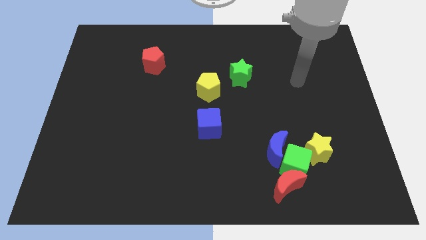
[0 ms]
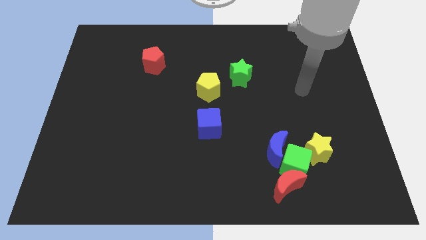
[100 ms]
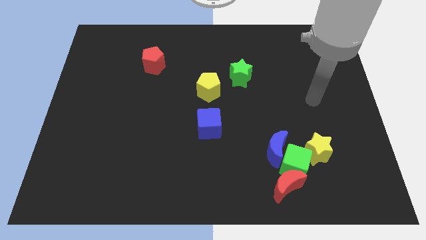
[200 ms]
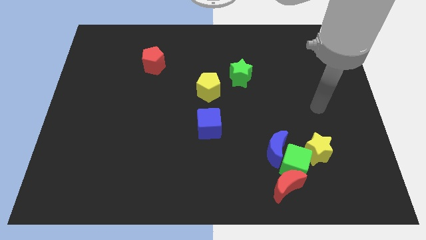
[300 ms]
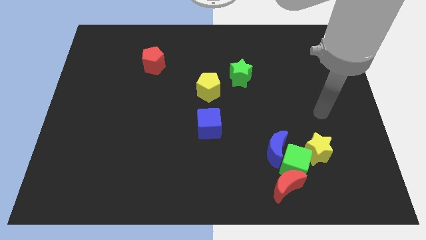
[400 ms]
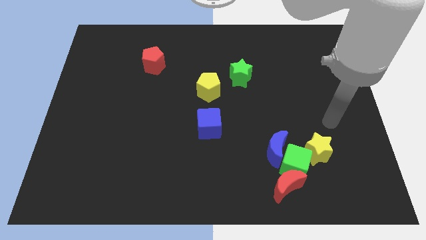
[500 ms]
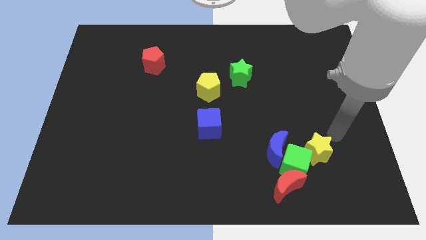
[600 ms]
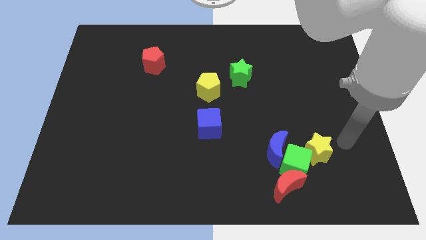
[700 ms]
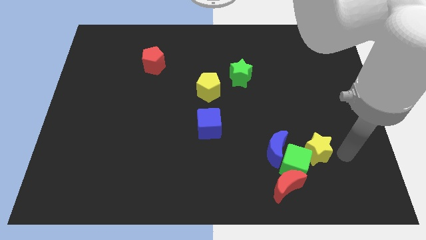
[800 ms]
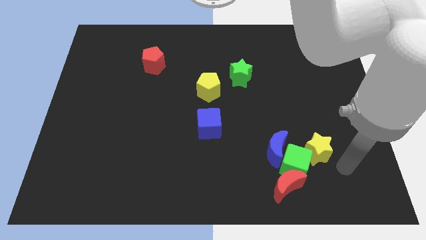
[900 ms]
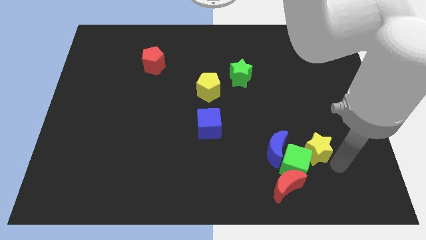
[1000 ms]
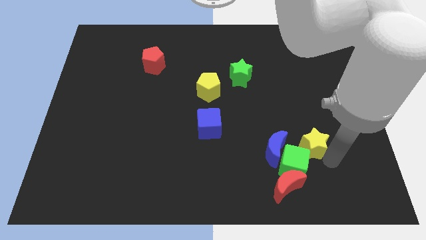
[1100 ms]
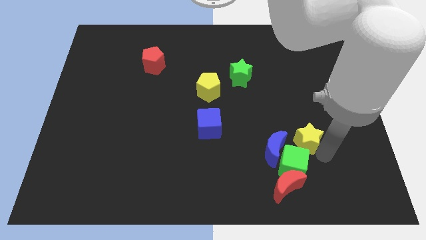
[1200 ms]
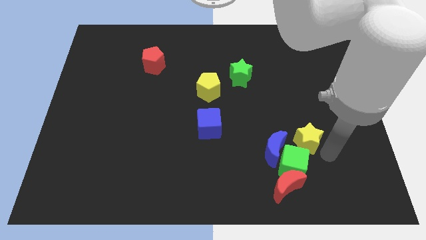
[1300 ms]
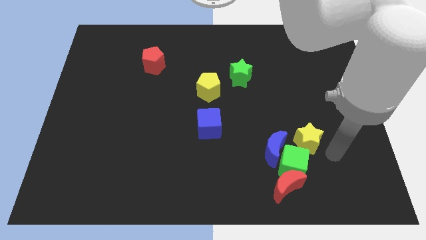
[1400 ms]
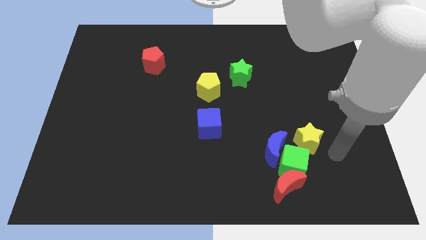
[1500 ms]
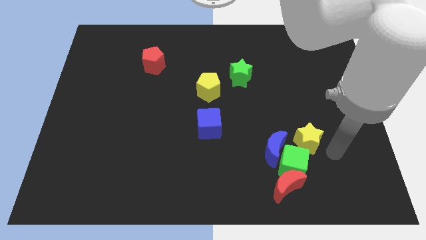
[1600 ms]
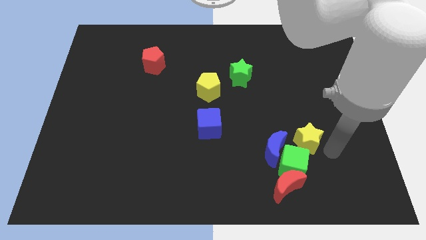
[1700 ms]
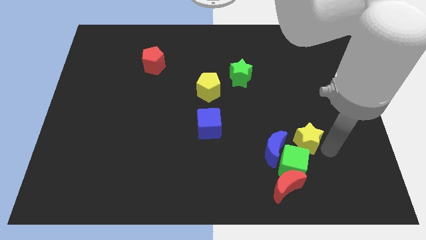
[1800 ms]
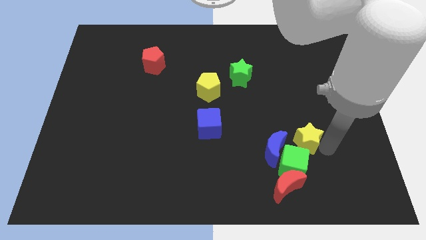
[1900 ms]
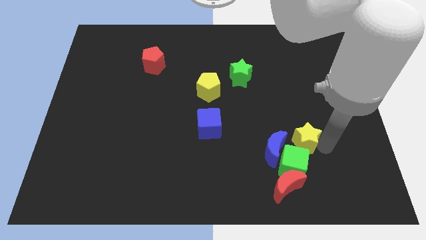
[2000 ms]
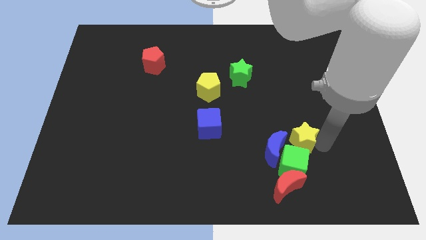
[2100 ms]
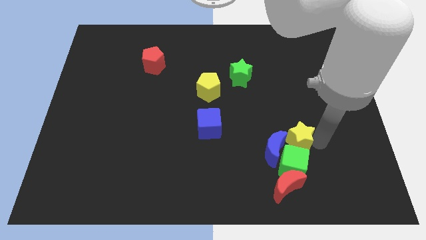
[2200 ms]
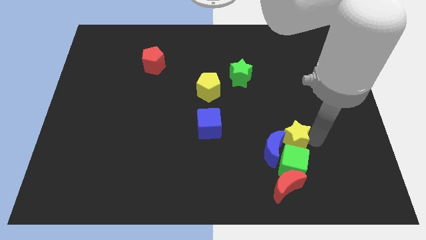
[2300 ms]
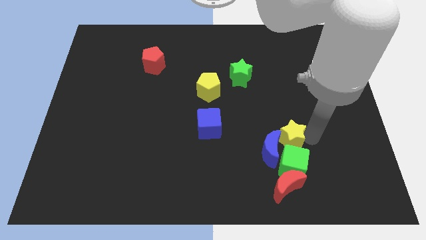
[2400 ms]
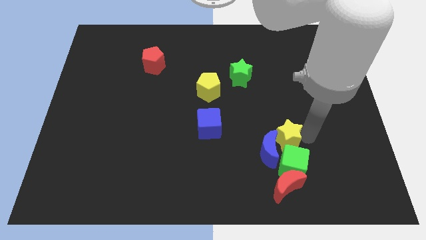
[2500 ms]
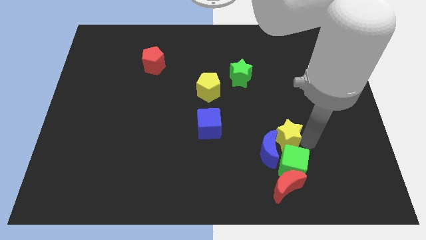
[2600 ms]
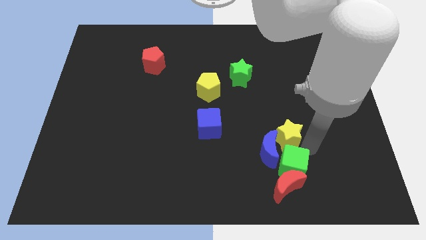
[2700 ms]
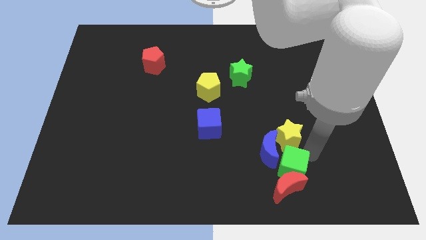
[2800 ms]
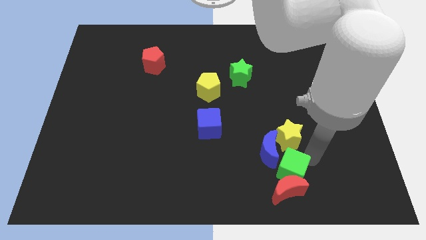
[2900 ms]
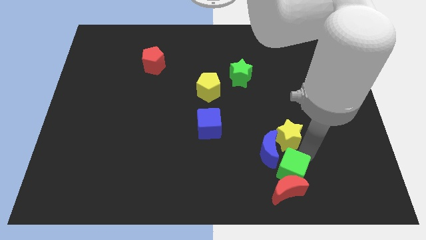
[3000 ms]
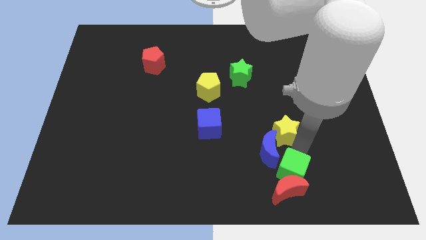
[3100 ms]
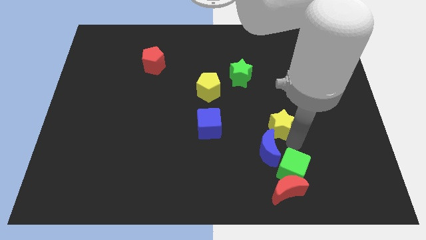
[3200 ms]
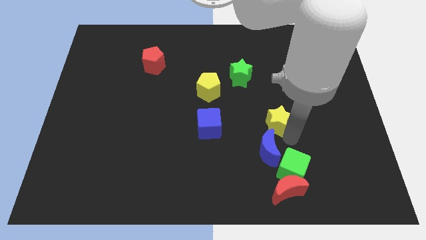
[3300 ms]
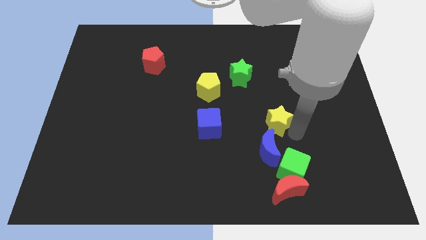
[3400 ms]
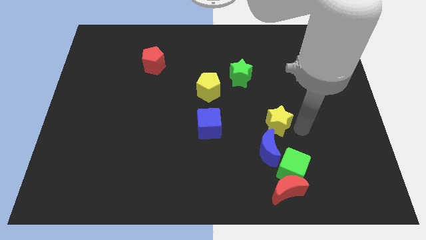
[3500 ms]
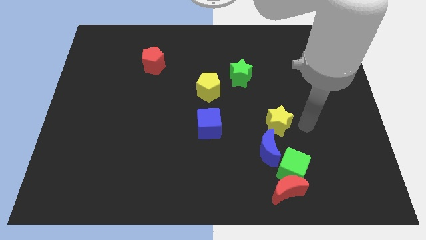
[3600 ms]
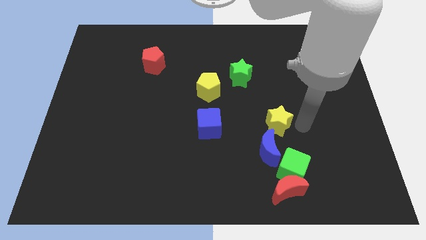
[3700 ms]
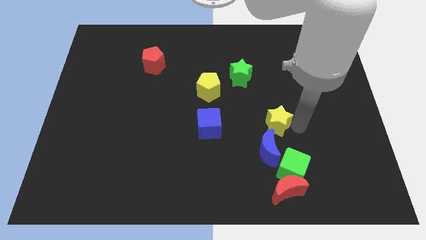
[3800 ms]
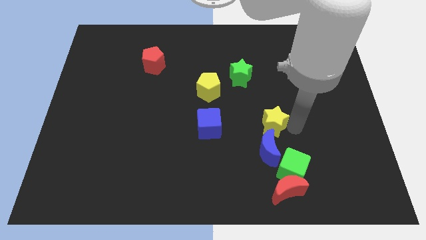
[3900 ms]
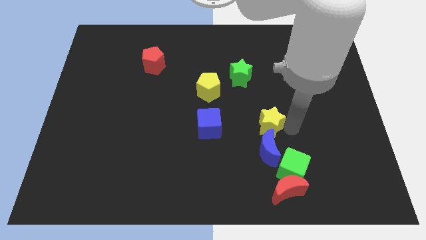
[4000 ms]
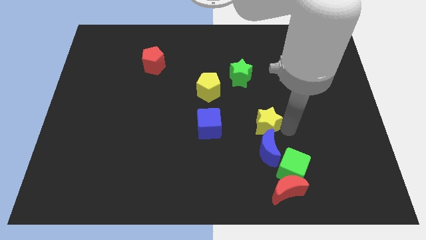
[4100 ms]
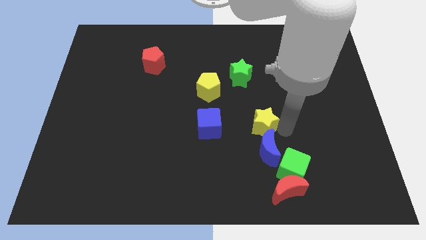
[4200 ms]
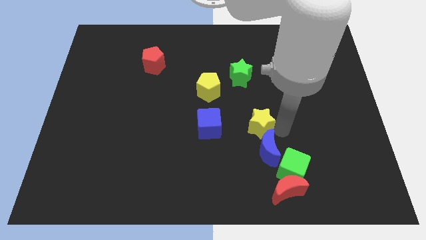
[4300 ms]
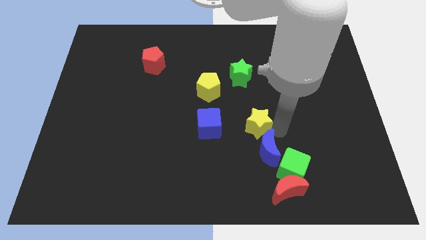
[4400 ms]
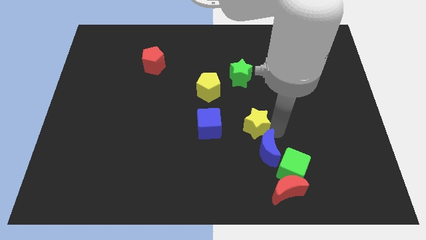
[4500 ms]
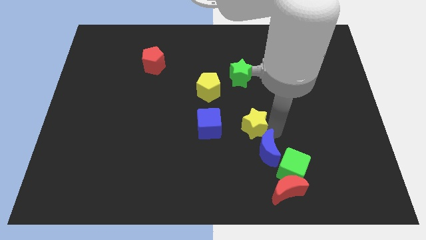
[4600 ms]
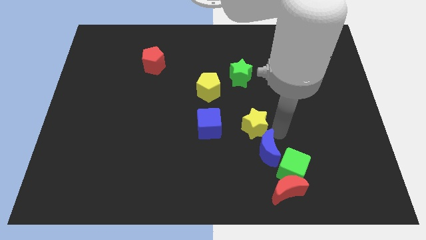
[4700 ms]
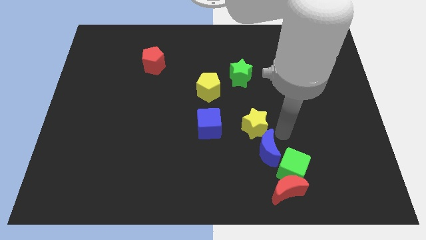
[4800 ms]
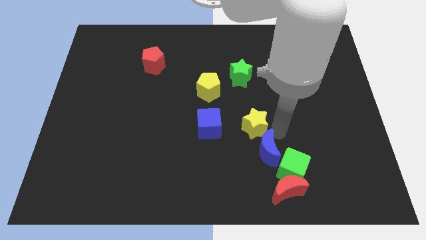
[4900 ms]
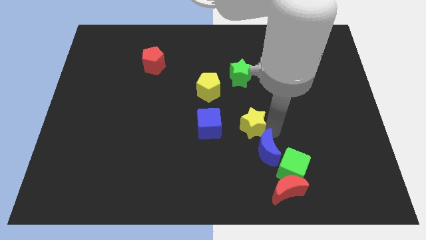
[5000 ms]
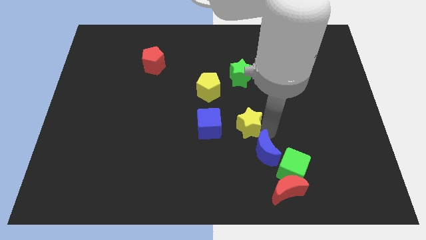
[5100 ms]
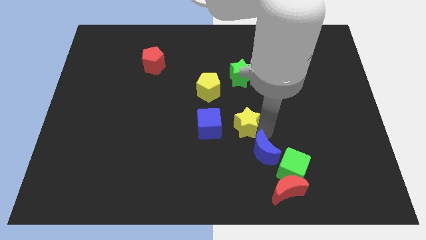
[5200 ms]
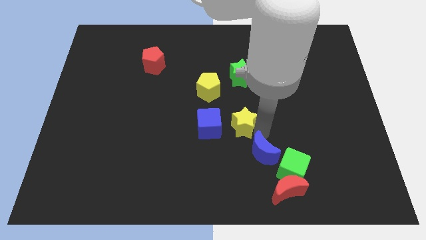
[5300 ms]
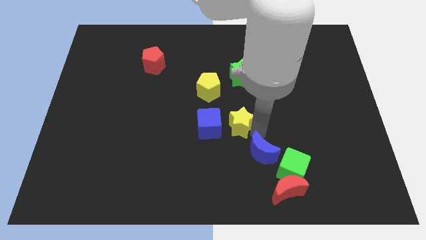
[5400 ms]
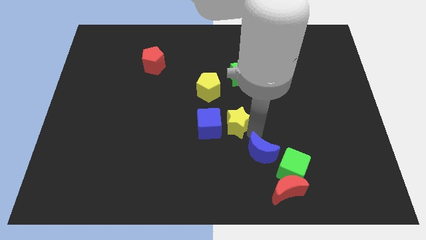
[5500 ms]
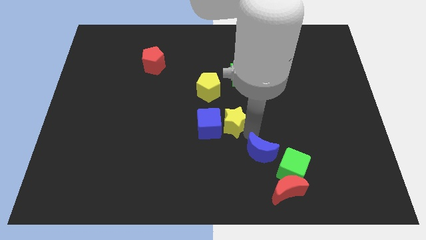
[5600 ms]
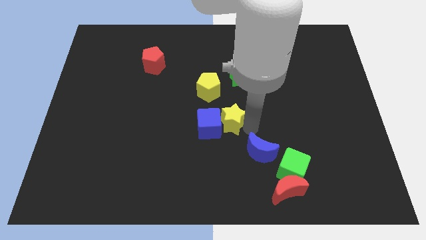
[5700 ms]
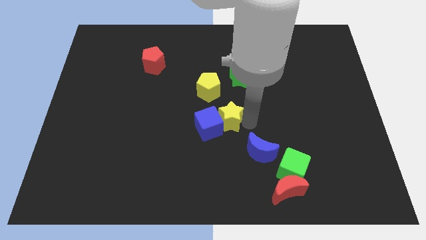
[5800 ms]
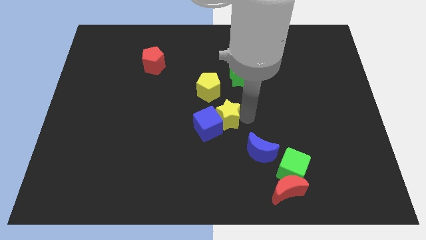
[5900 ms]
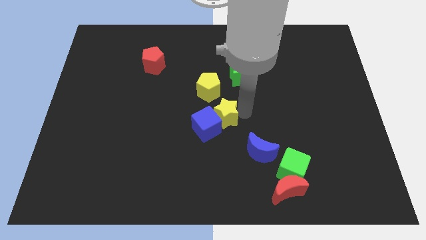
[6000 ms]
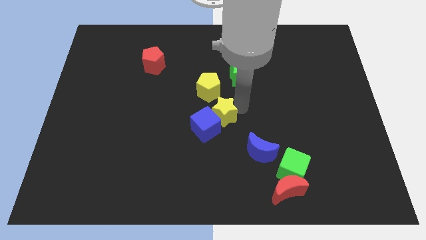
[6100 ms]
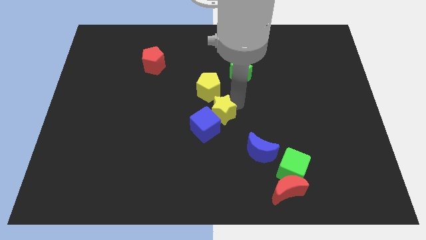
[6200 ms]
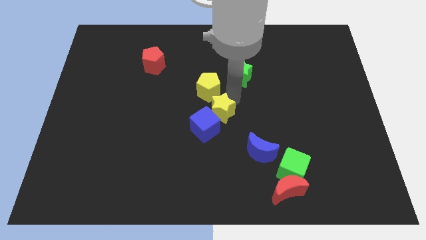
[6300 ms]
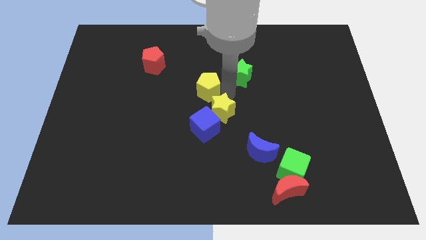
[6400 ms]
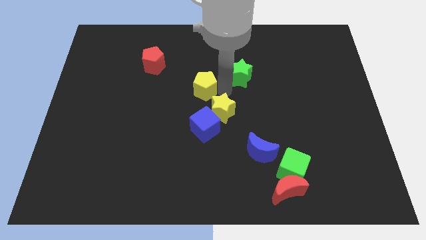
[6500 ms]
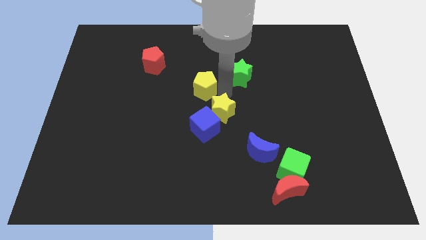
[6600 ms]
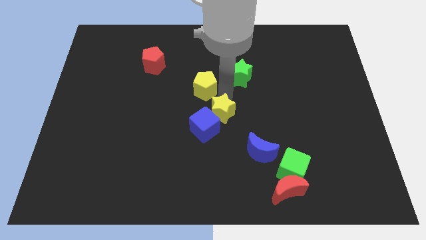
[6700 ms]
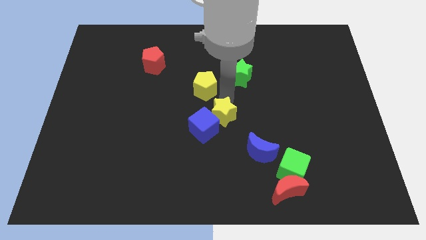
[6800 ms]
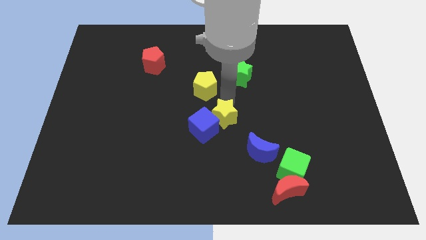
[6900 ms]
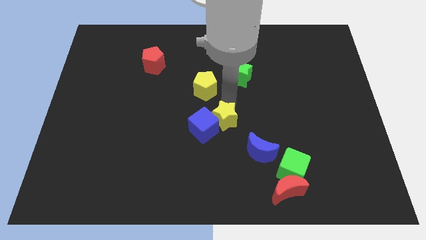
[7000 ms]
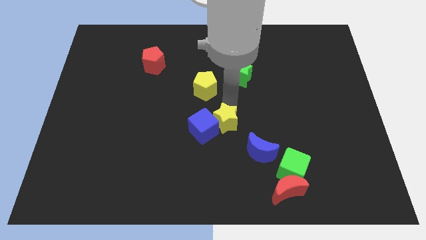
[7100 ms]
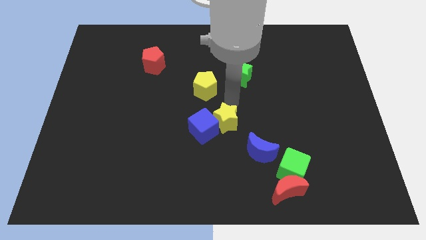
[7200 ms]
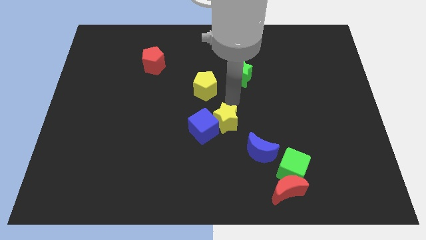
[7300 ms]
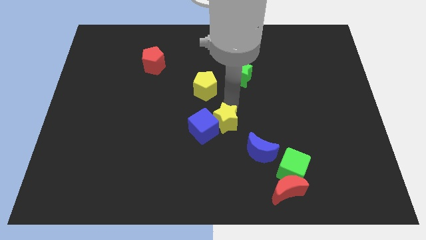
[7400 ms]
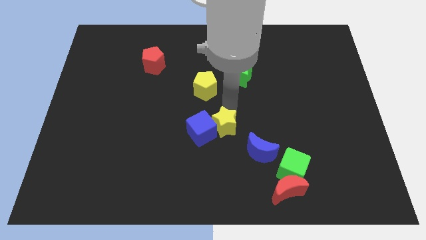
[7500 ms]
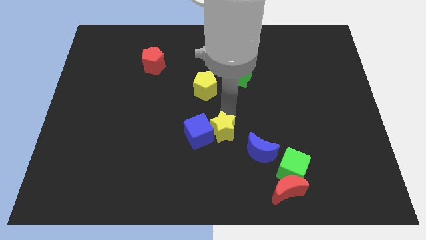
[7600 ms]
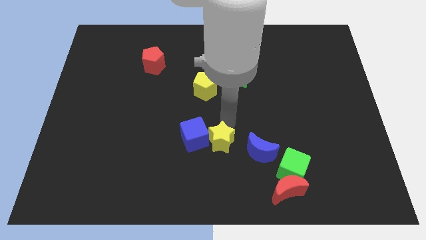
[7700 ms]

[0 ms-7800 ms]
move the yellow star left
